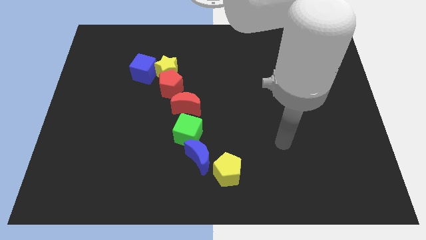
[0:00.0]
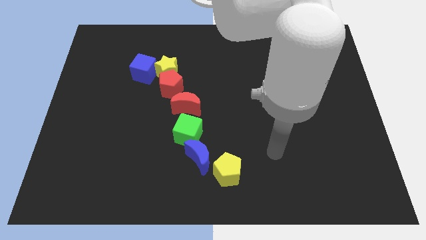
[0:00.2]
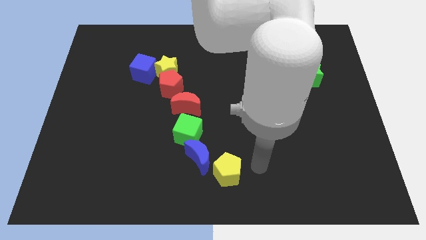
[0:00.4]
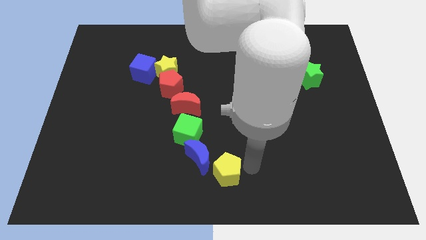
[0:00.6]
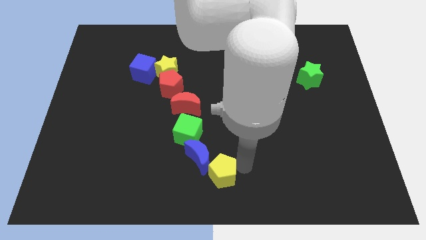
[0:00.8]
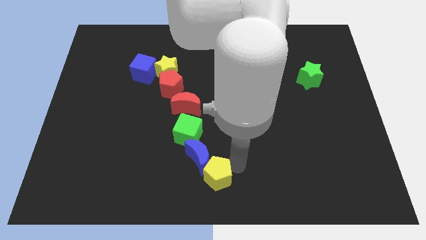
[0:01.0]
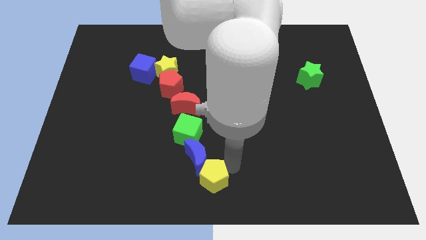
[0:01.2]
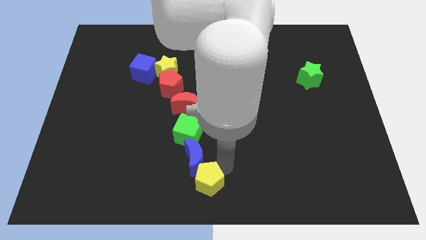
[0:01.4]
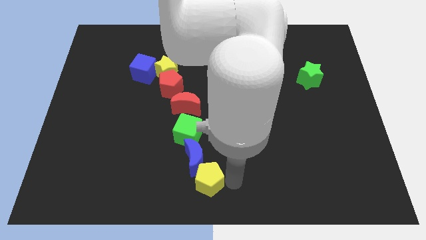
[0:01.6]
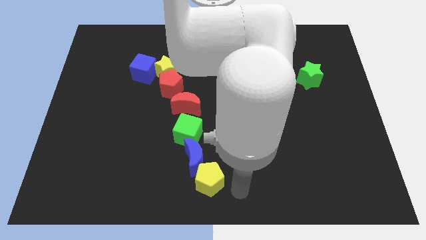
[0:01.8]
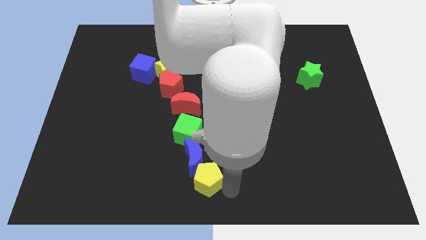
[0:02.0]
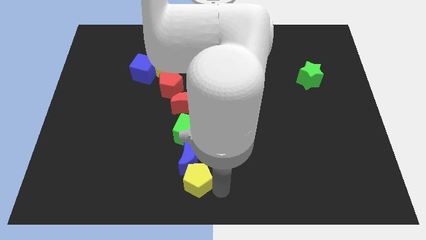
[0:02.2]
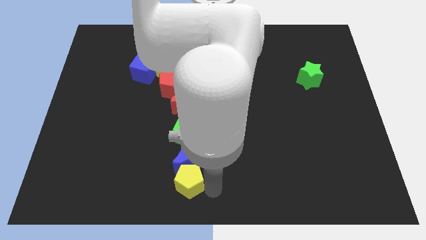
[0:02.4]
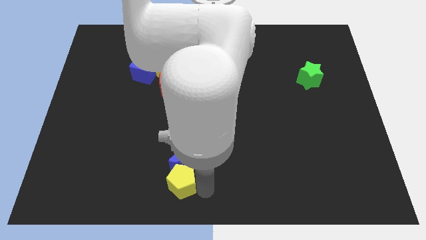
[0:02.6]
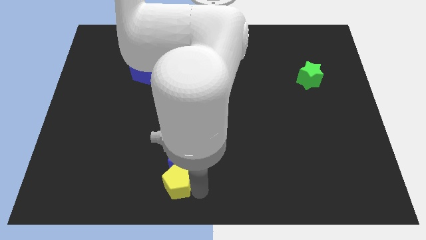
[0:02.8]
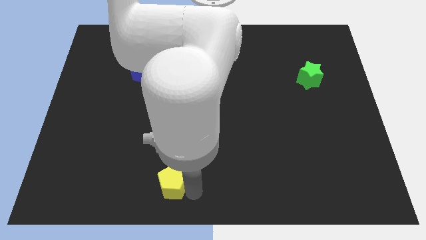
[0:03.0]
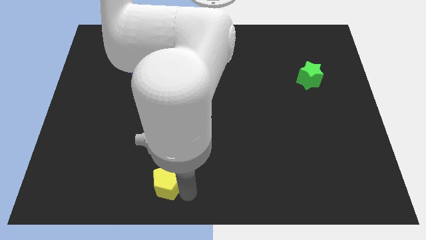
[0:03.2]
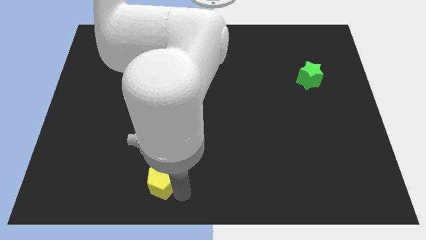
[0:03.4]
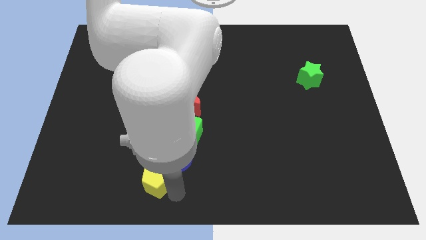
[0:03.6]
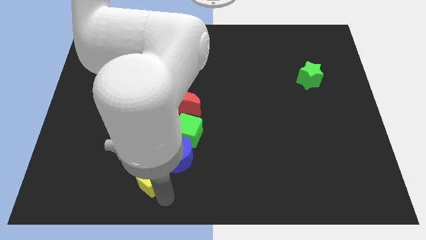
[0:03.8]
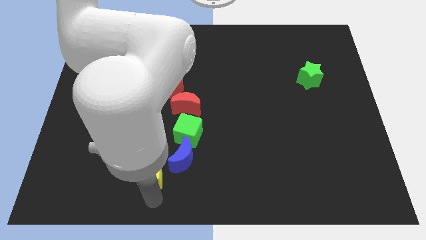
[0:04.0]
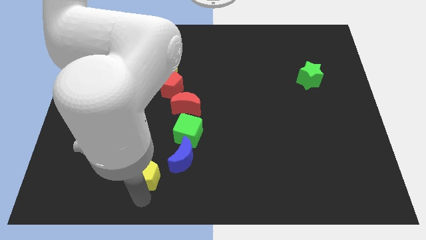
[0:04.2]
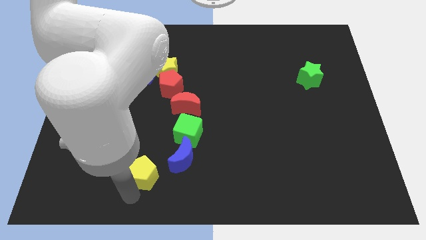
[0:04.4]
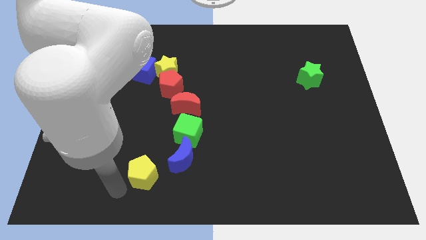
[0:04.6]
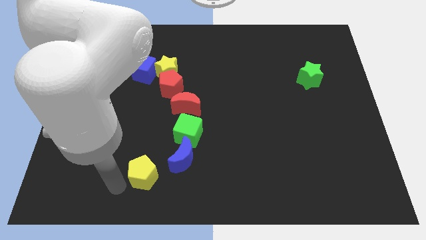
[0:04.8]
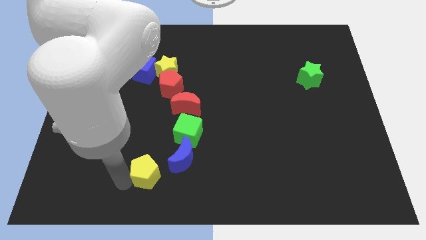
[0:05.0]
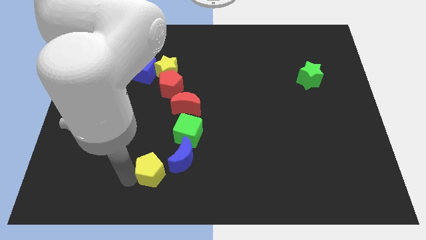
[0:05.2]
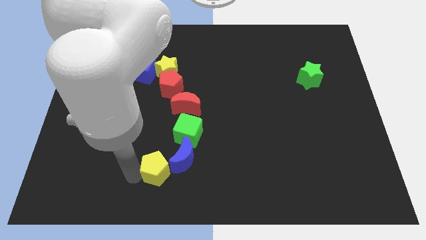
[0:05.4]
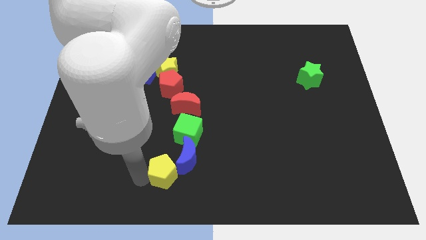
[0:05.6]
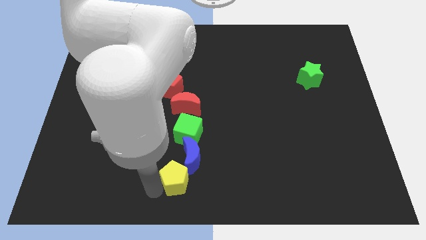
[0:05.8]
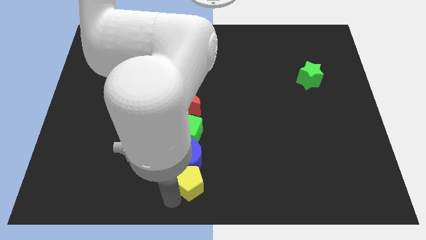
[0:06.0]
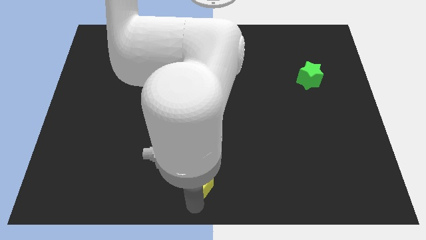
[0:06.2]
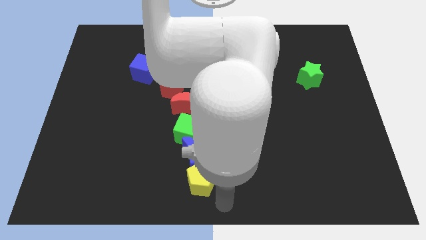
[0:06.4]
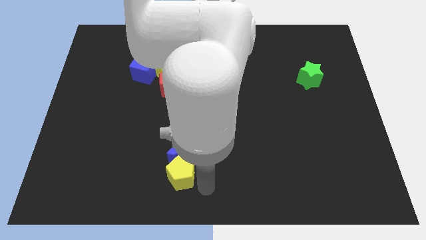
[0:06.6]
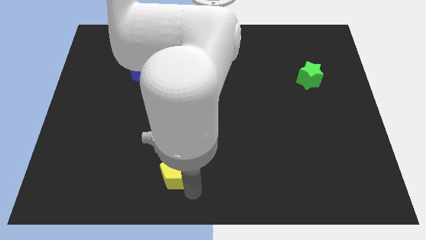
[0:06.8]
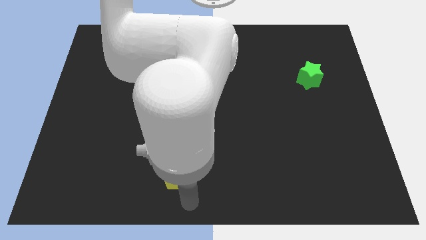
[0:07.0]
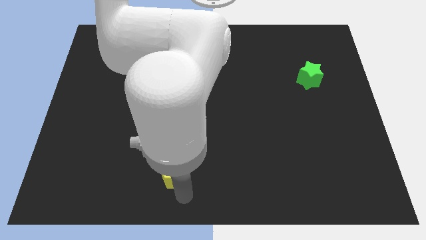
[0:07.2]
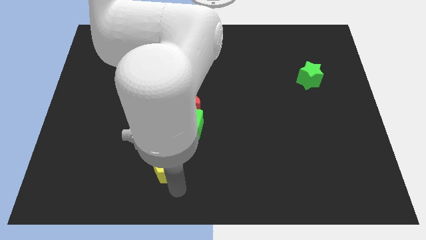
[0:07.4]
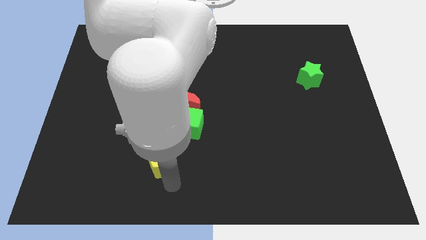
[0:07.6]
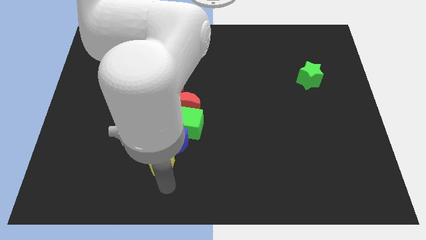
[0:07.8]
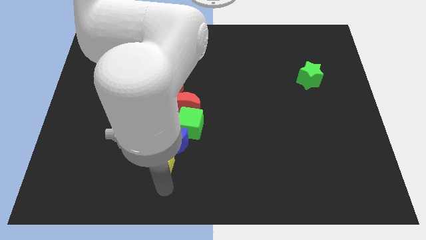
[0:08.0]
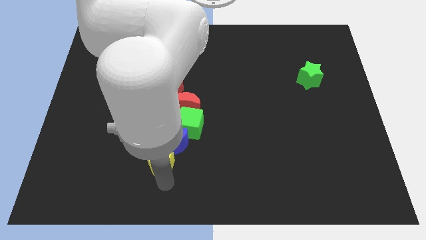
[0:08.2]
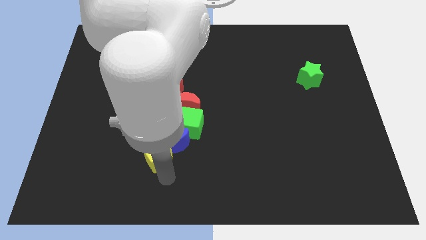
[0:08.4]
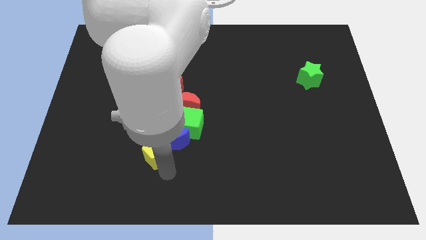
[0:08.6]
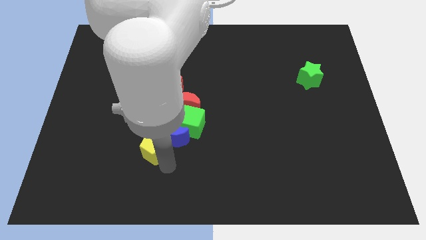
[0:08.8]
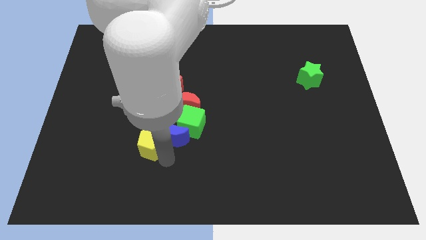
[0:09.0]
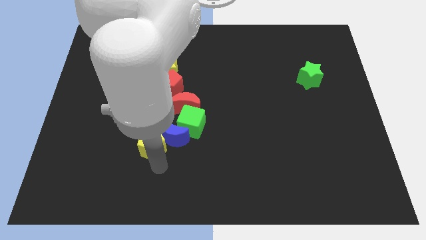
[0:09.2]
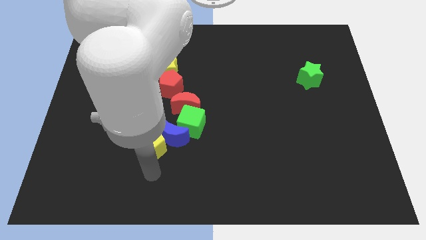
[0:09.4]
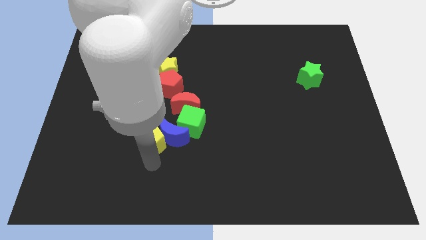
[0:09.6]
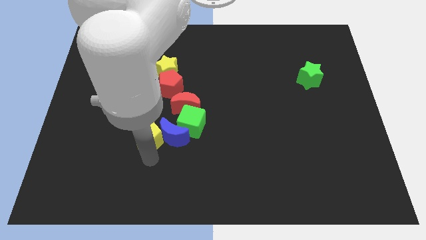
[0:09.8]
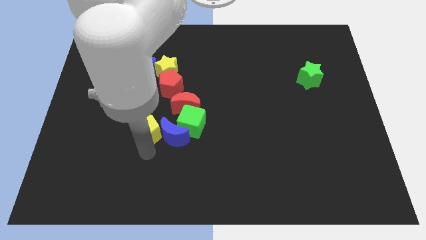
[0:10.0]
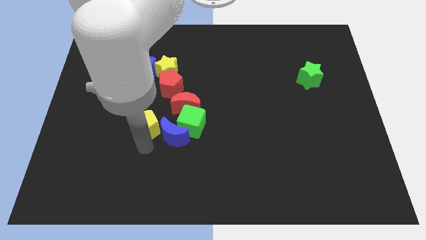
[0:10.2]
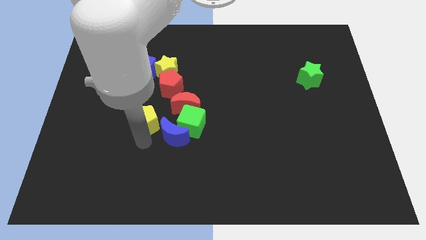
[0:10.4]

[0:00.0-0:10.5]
put the yellow pentagon below the blue cube

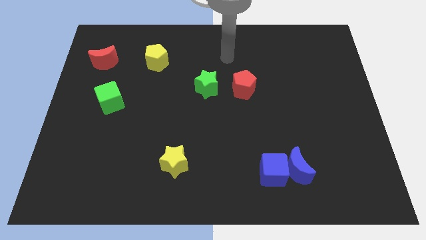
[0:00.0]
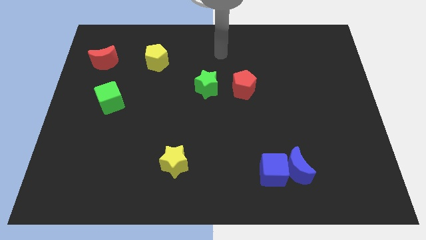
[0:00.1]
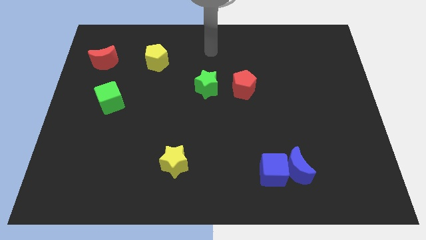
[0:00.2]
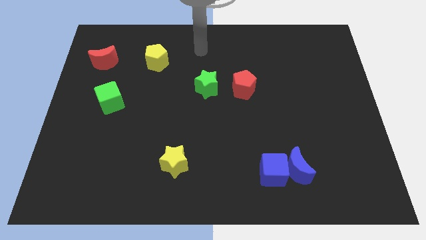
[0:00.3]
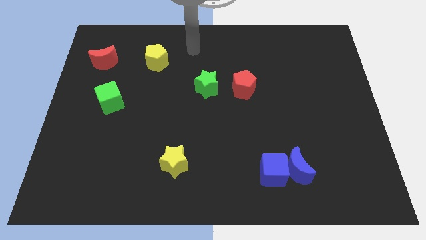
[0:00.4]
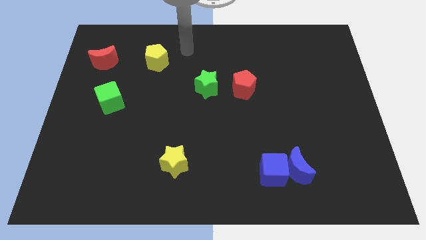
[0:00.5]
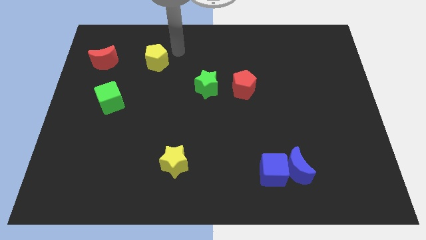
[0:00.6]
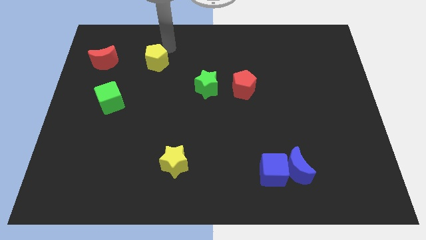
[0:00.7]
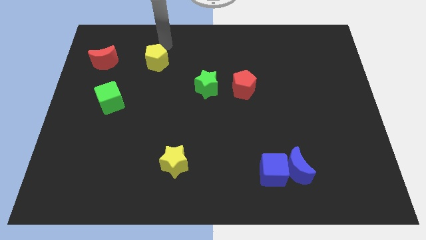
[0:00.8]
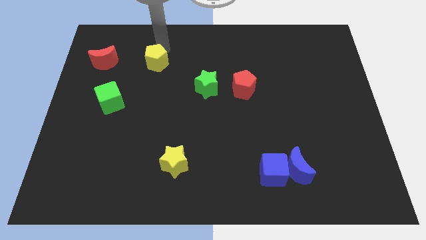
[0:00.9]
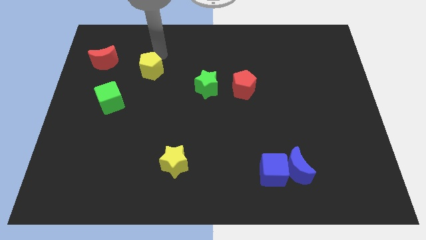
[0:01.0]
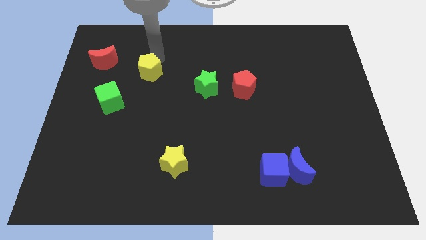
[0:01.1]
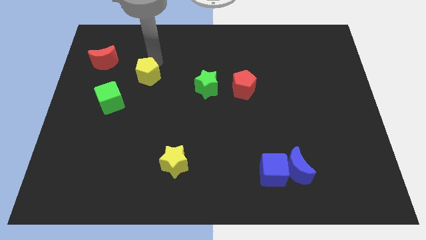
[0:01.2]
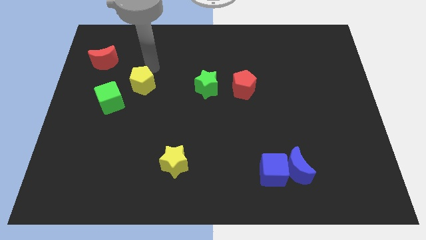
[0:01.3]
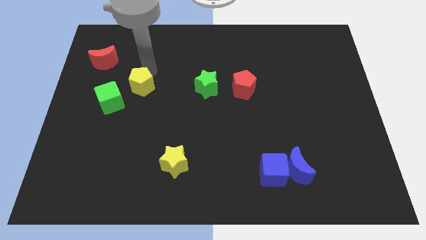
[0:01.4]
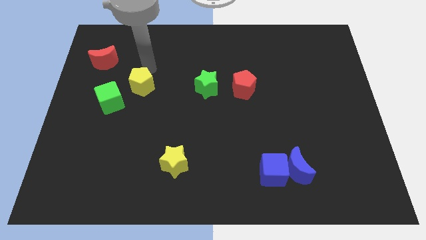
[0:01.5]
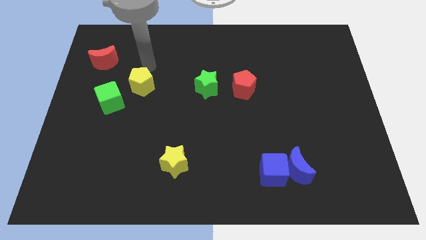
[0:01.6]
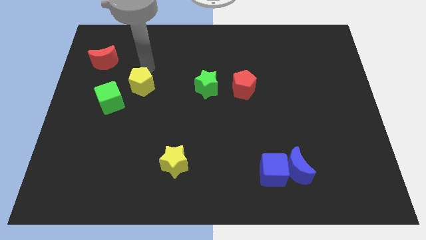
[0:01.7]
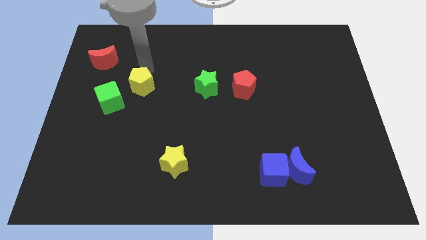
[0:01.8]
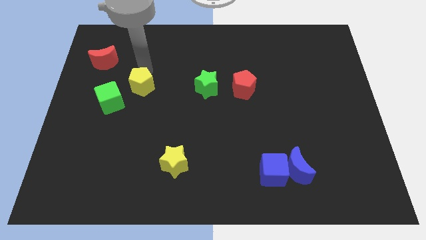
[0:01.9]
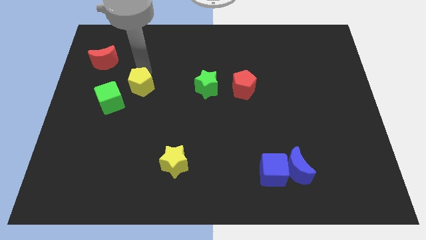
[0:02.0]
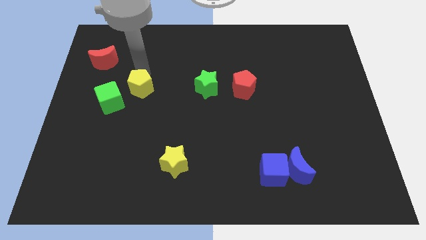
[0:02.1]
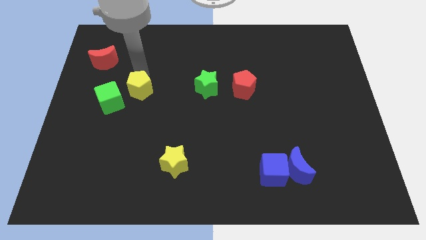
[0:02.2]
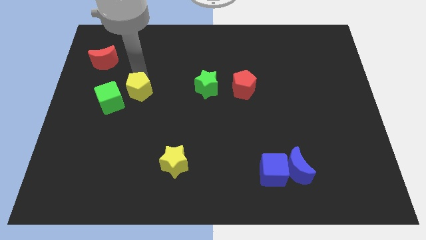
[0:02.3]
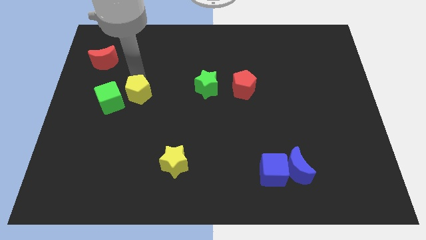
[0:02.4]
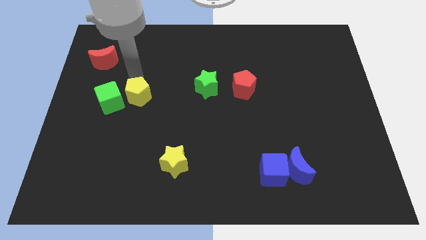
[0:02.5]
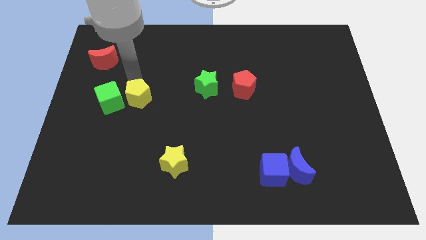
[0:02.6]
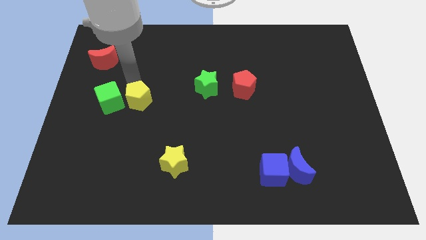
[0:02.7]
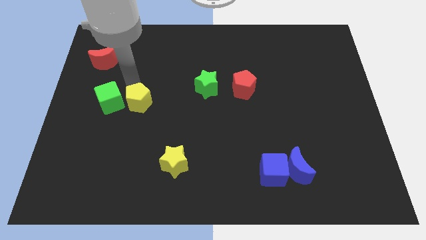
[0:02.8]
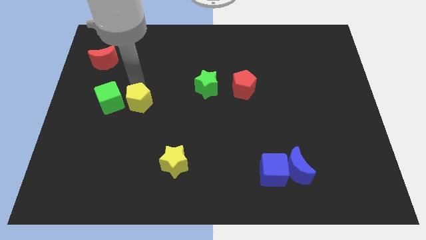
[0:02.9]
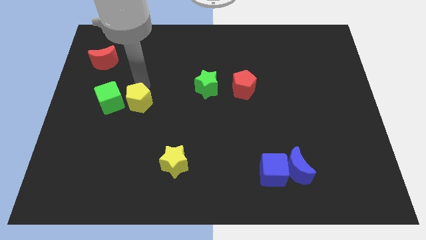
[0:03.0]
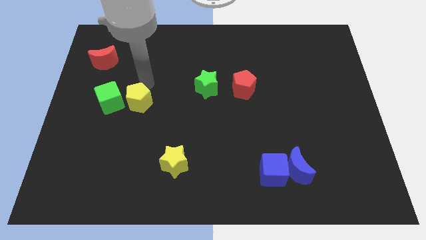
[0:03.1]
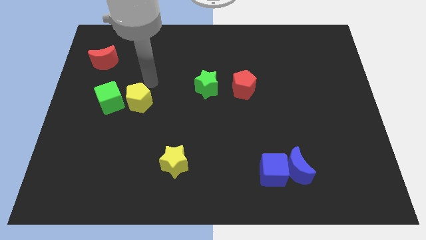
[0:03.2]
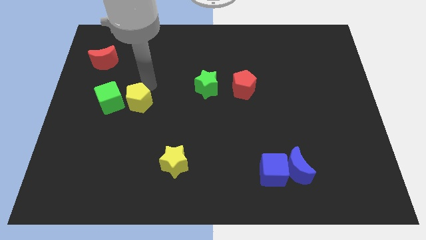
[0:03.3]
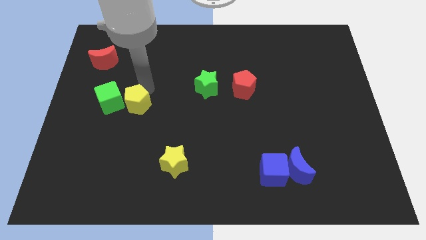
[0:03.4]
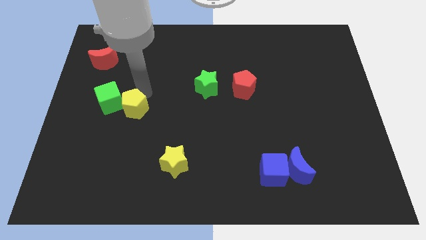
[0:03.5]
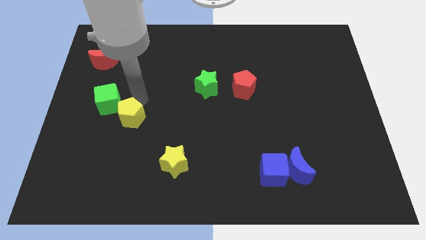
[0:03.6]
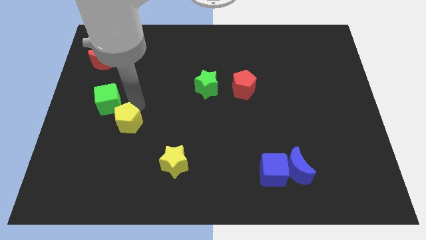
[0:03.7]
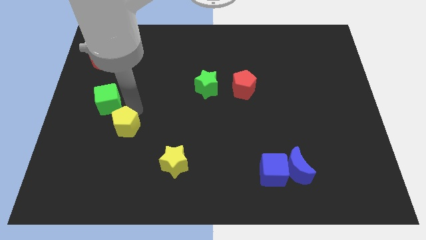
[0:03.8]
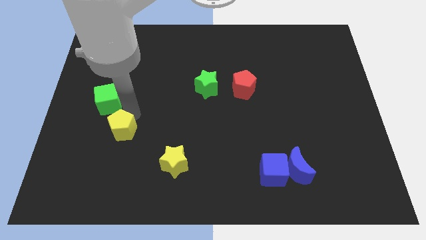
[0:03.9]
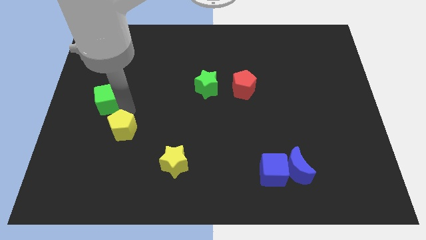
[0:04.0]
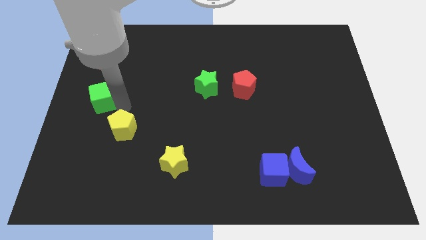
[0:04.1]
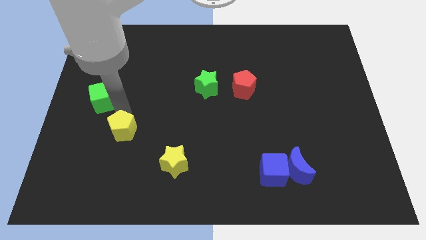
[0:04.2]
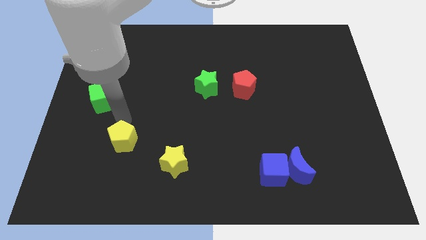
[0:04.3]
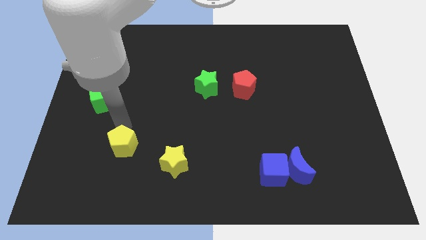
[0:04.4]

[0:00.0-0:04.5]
put the yellow pentagon left of the yellow star
